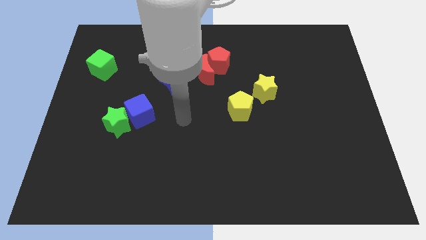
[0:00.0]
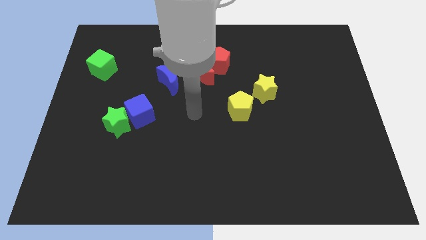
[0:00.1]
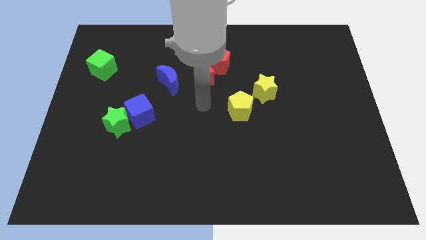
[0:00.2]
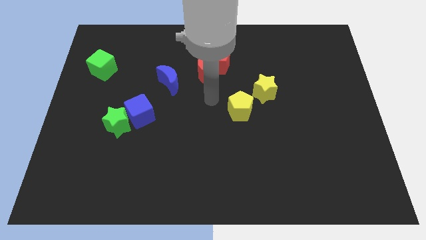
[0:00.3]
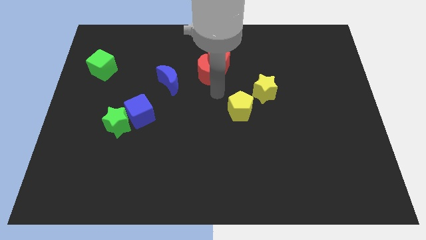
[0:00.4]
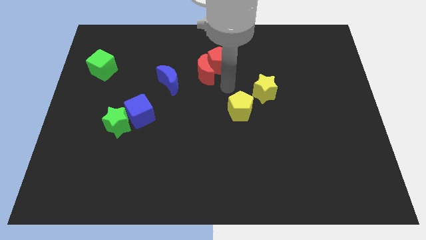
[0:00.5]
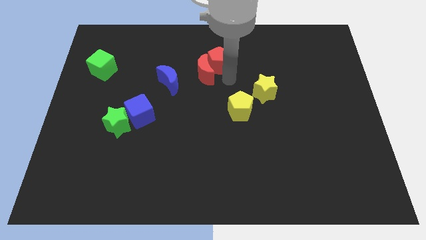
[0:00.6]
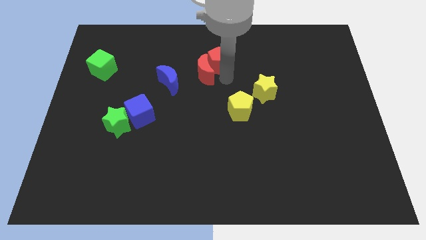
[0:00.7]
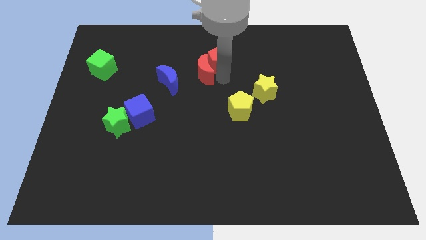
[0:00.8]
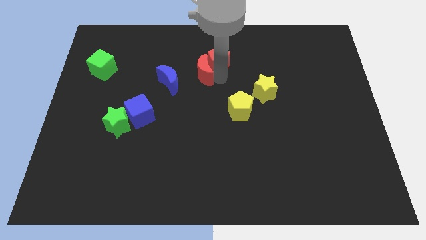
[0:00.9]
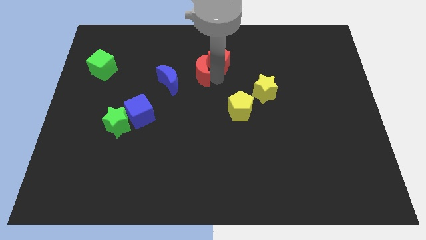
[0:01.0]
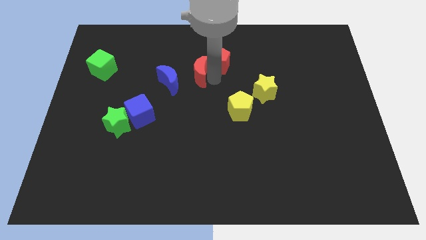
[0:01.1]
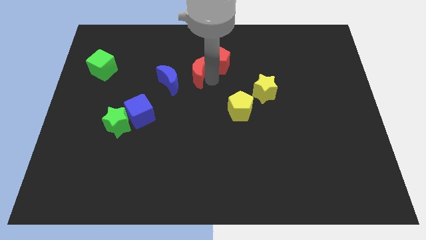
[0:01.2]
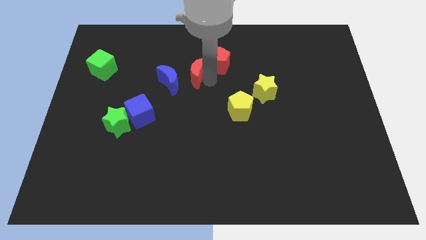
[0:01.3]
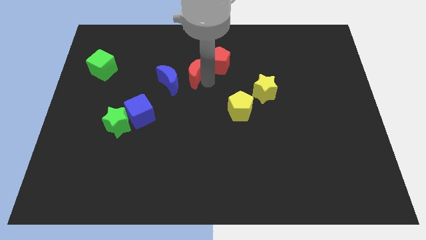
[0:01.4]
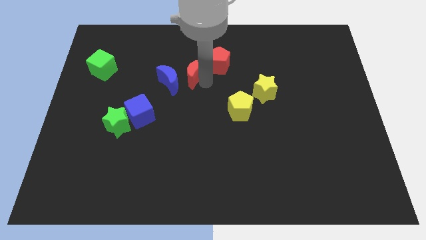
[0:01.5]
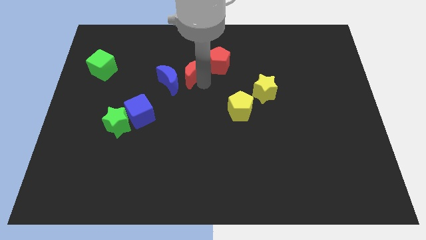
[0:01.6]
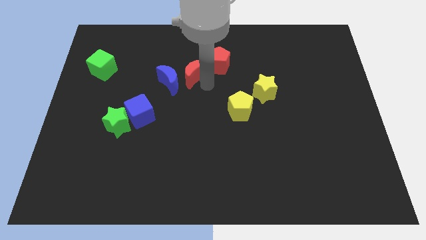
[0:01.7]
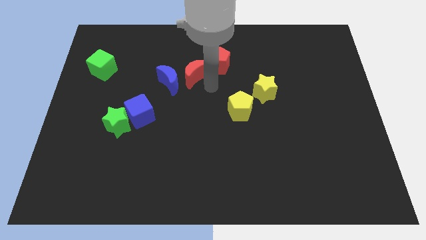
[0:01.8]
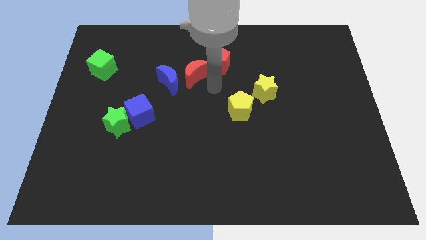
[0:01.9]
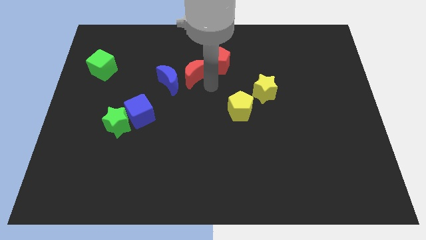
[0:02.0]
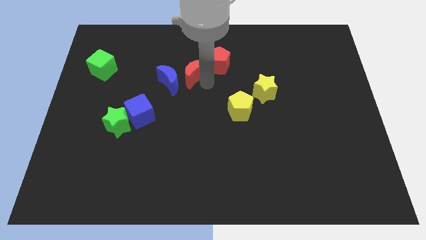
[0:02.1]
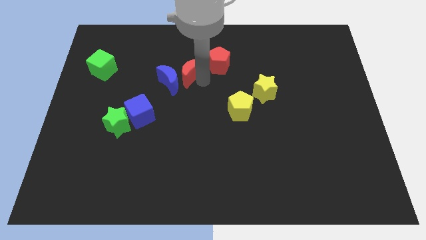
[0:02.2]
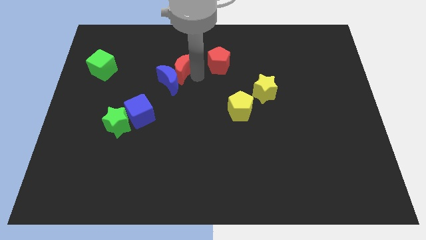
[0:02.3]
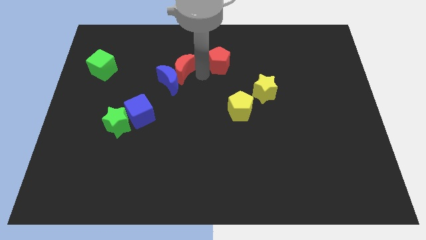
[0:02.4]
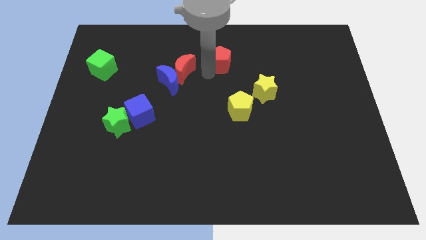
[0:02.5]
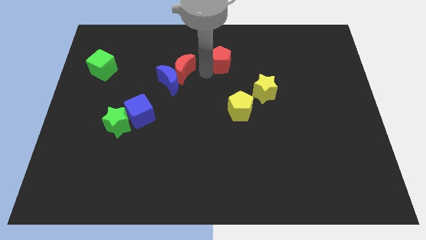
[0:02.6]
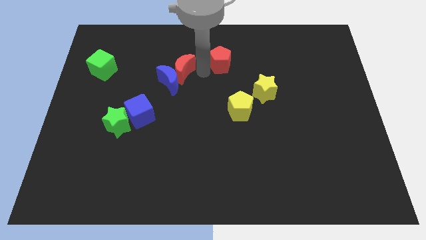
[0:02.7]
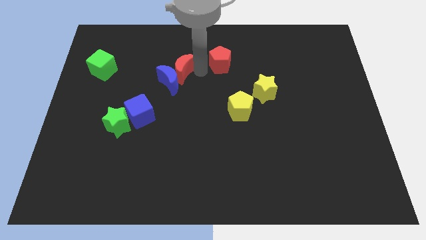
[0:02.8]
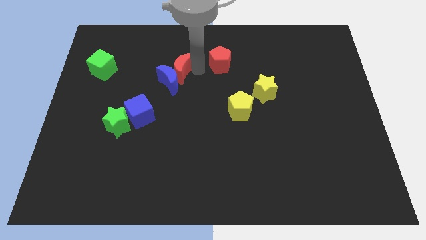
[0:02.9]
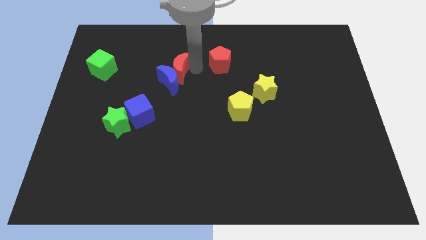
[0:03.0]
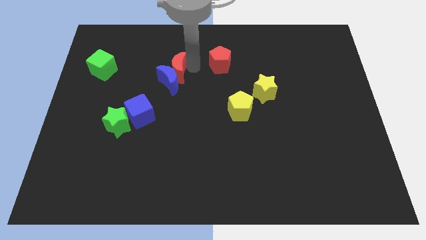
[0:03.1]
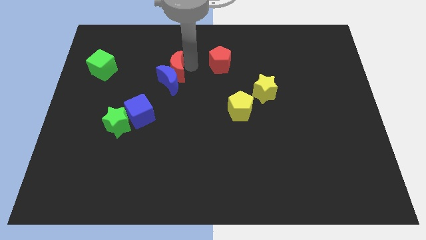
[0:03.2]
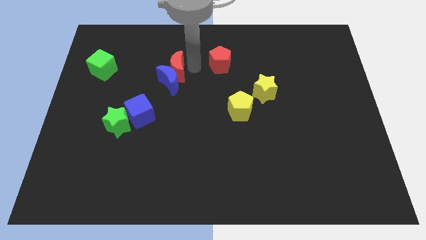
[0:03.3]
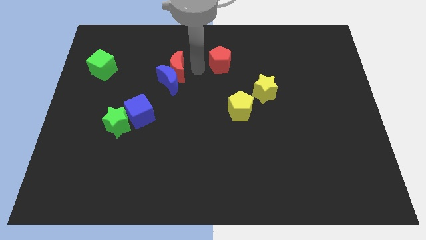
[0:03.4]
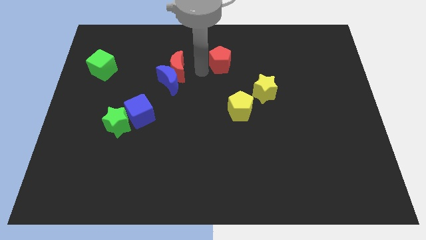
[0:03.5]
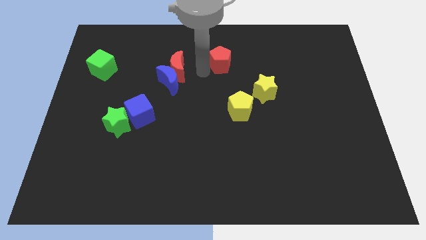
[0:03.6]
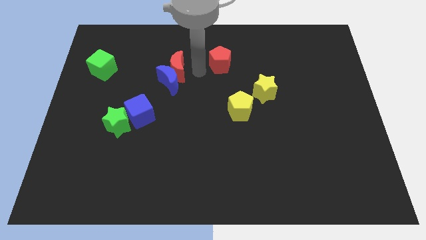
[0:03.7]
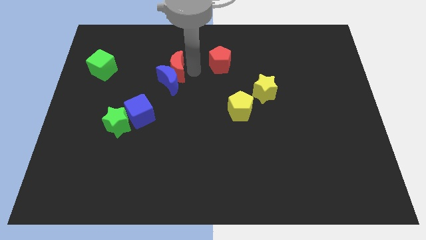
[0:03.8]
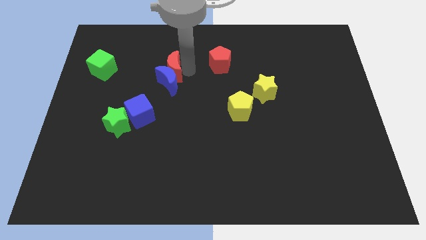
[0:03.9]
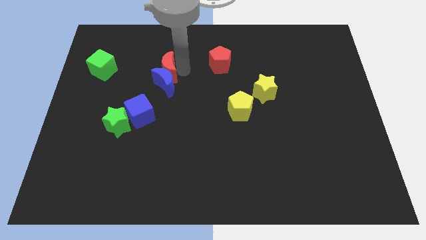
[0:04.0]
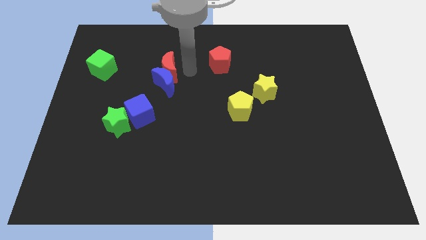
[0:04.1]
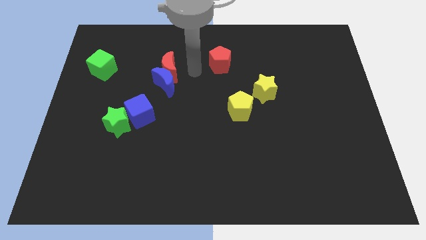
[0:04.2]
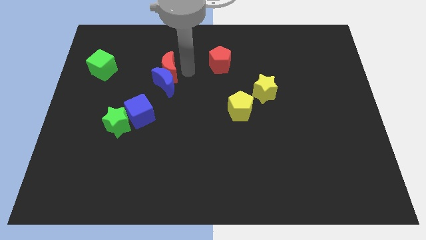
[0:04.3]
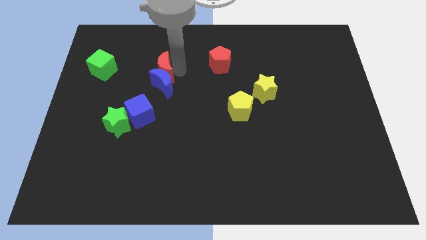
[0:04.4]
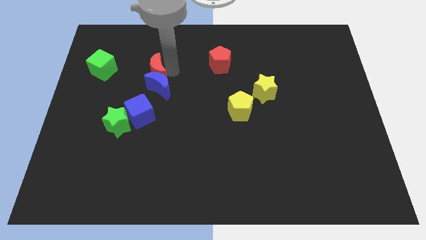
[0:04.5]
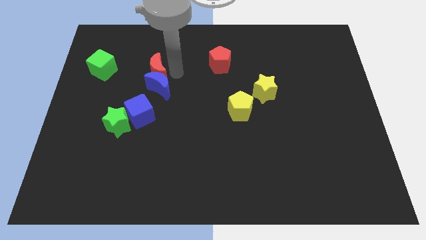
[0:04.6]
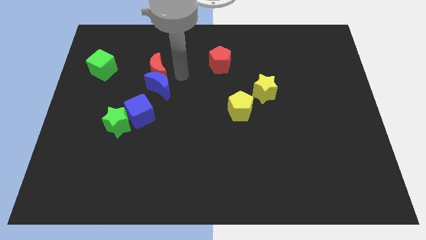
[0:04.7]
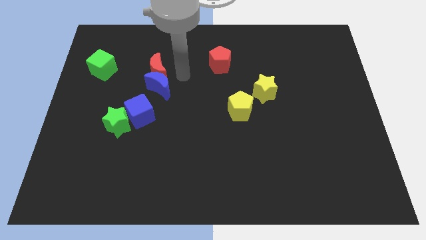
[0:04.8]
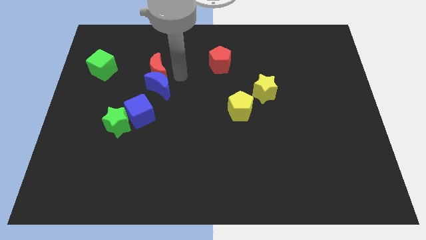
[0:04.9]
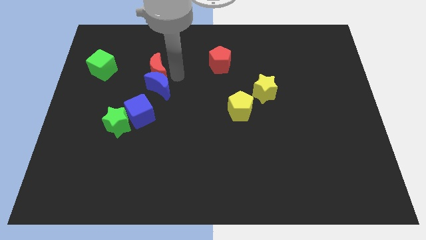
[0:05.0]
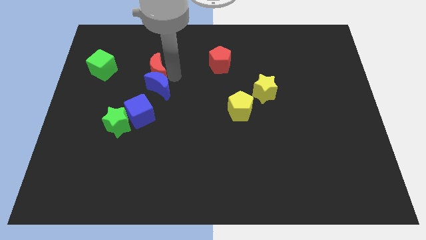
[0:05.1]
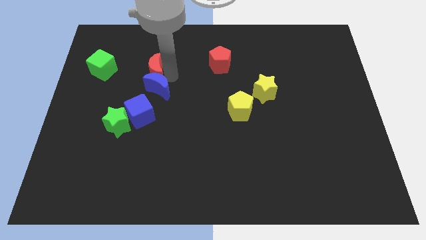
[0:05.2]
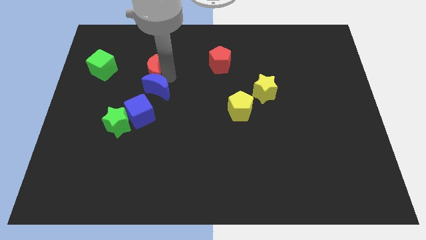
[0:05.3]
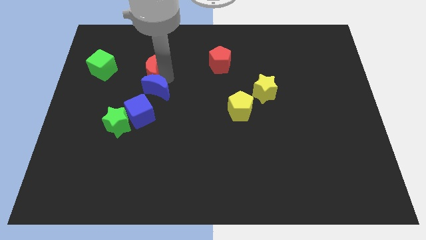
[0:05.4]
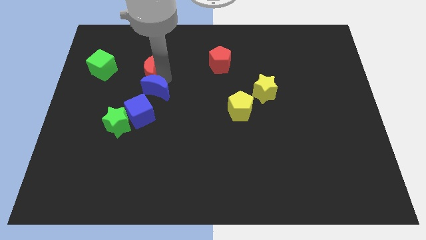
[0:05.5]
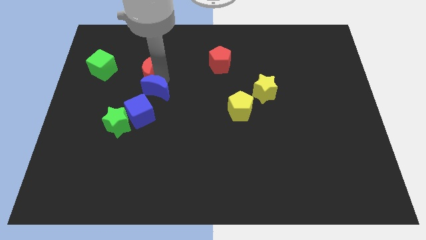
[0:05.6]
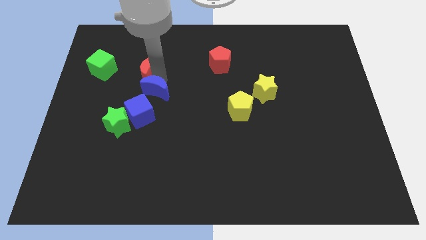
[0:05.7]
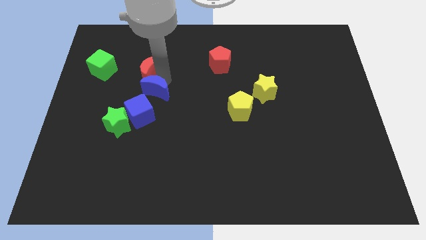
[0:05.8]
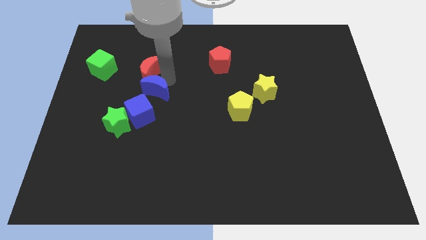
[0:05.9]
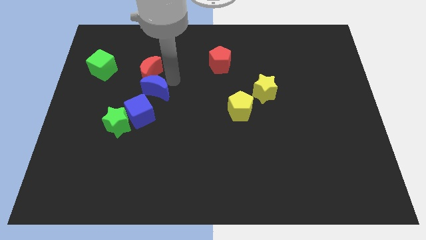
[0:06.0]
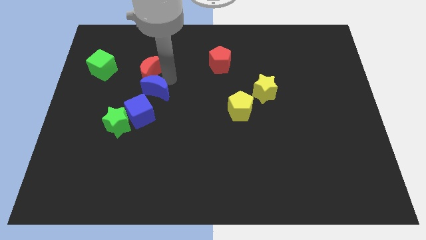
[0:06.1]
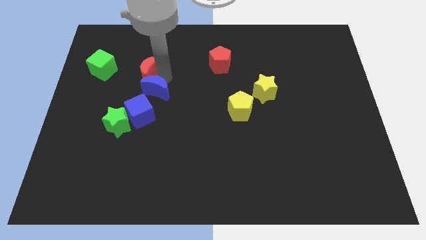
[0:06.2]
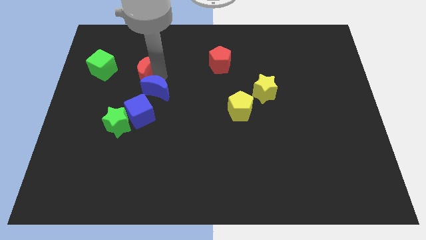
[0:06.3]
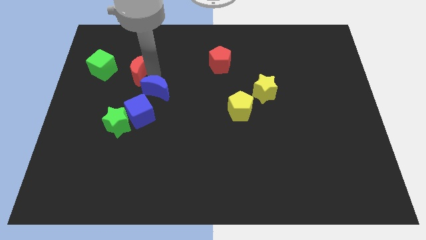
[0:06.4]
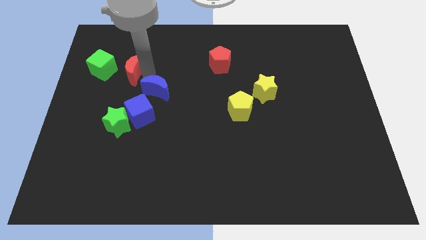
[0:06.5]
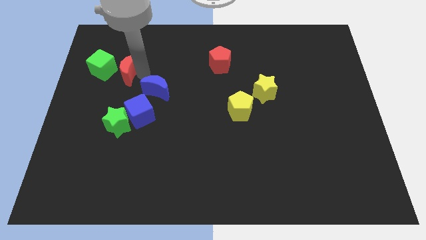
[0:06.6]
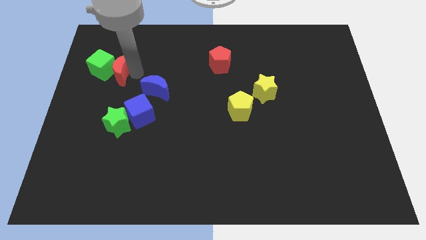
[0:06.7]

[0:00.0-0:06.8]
put the red moon to the green cube

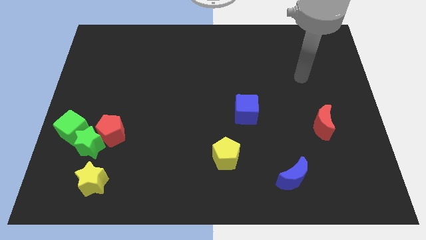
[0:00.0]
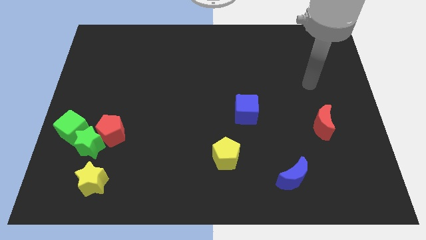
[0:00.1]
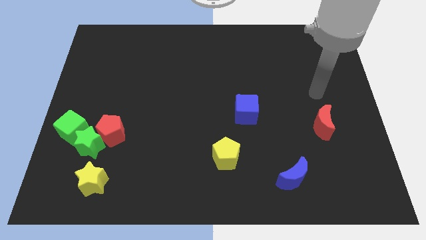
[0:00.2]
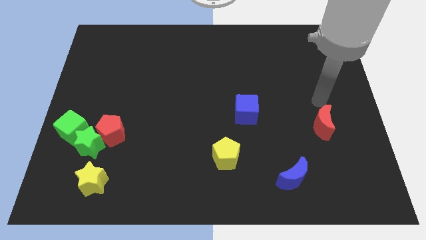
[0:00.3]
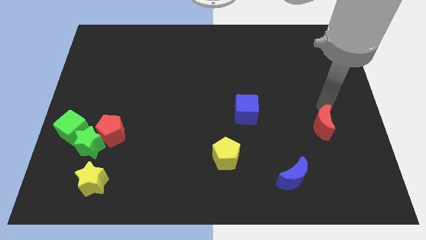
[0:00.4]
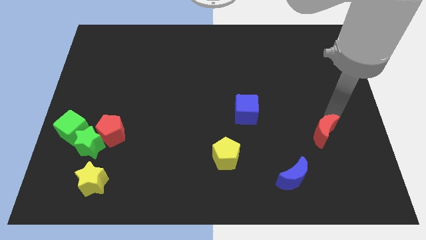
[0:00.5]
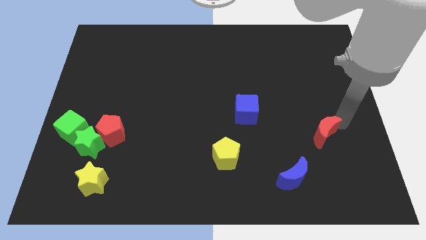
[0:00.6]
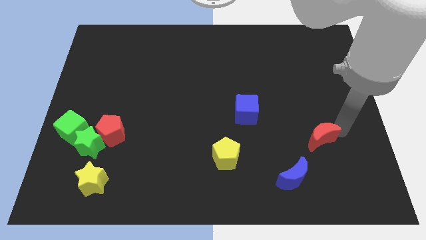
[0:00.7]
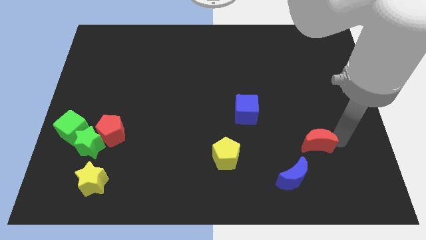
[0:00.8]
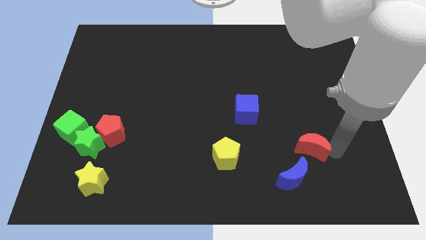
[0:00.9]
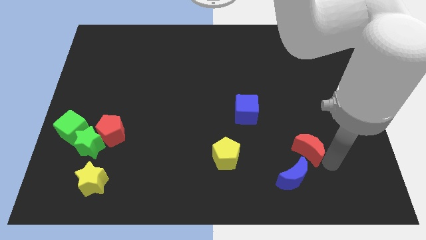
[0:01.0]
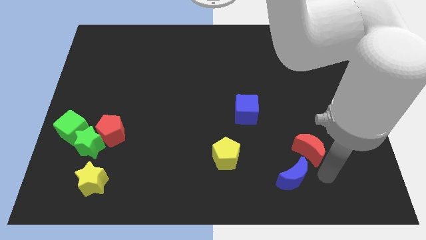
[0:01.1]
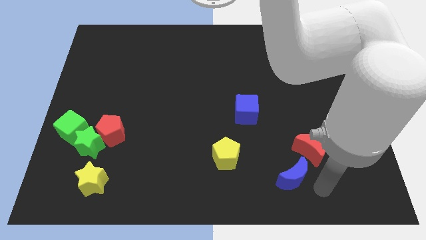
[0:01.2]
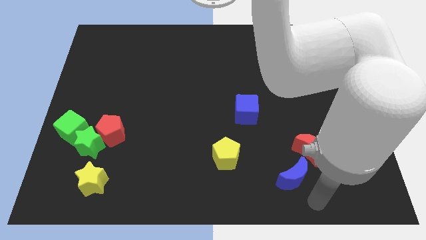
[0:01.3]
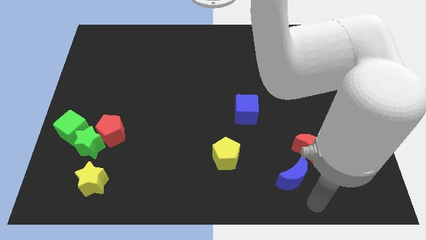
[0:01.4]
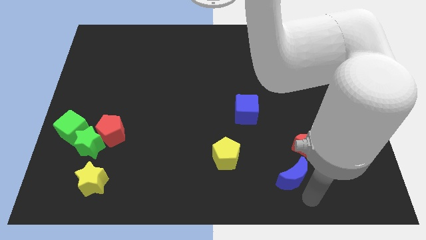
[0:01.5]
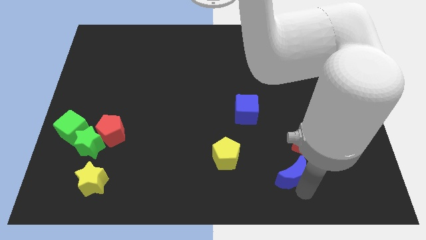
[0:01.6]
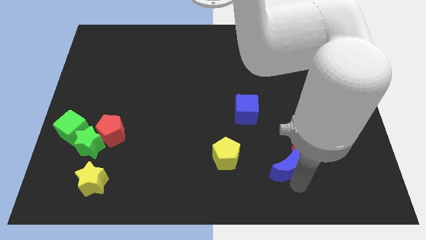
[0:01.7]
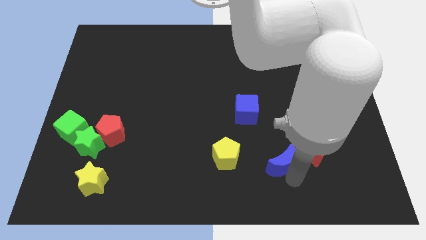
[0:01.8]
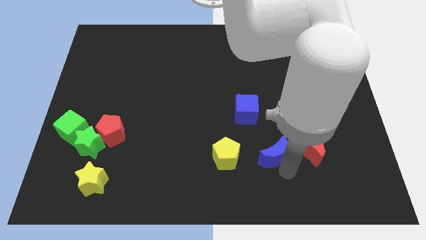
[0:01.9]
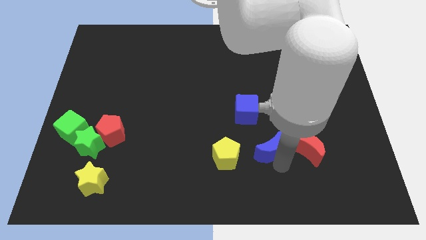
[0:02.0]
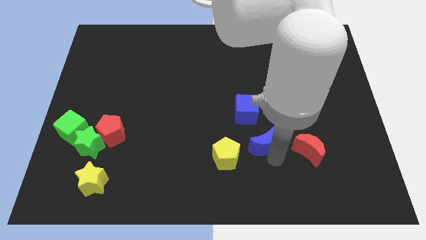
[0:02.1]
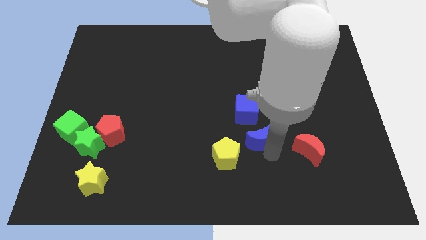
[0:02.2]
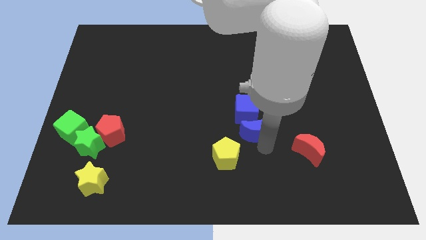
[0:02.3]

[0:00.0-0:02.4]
slide the blue moon close to the blue cube
